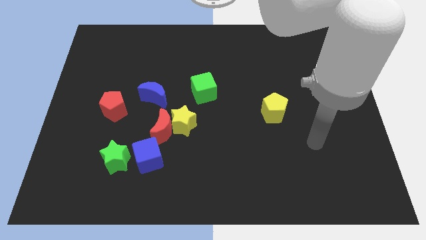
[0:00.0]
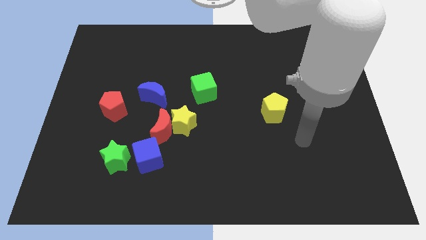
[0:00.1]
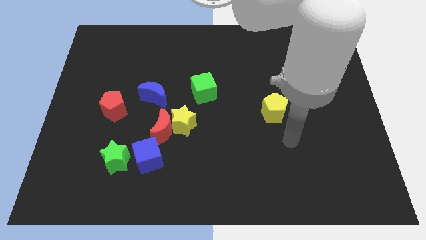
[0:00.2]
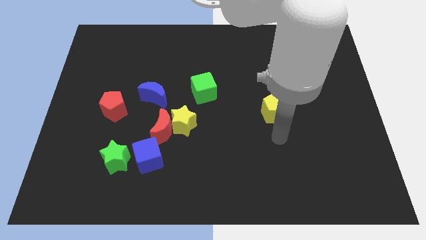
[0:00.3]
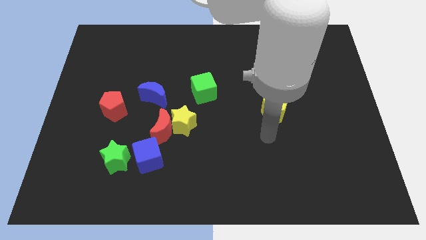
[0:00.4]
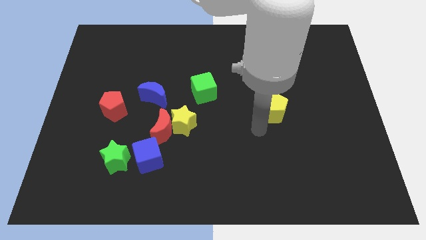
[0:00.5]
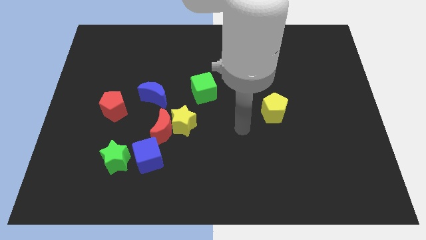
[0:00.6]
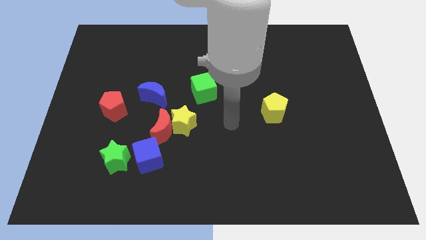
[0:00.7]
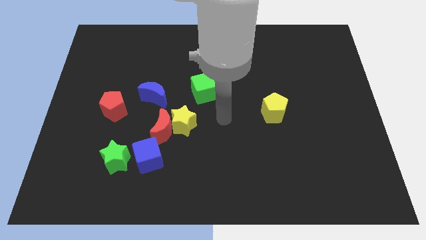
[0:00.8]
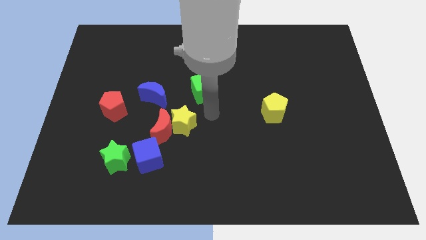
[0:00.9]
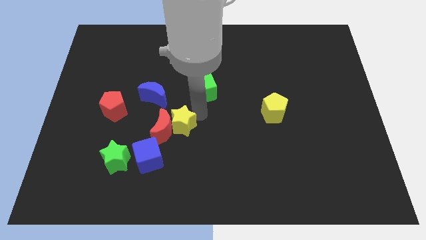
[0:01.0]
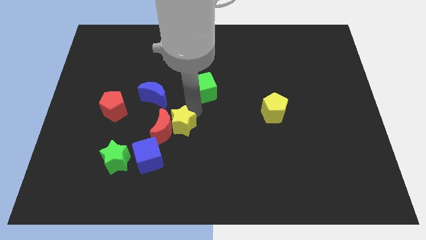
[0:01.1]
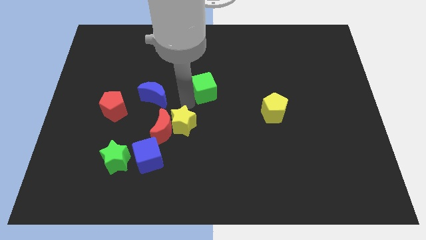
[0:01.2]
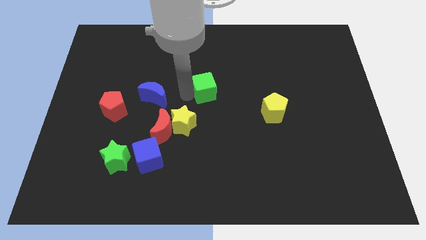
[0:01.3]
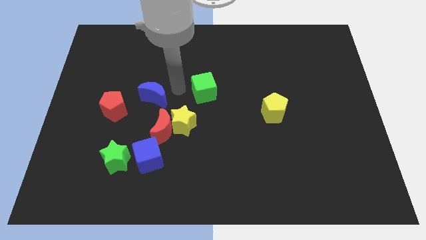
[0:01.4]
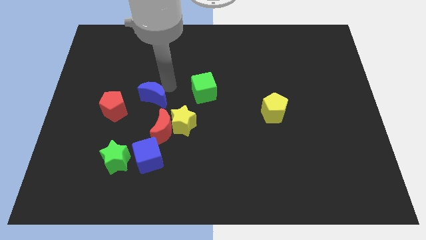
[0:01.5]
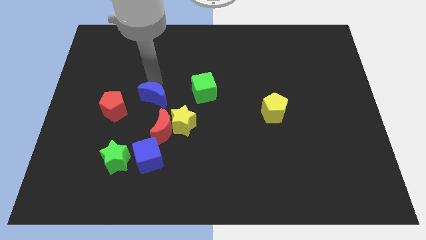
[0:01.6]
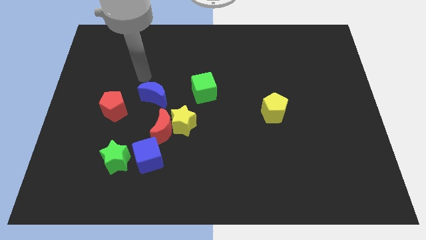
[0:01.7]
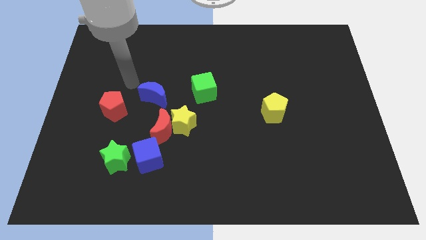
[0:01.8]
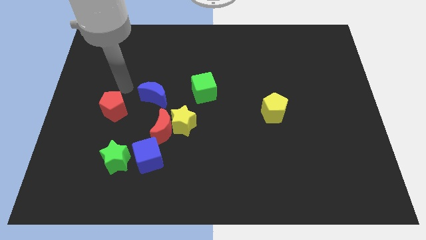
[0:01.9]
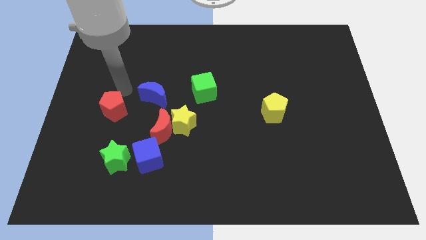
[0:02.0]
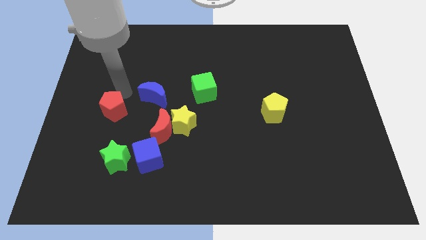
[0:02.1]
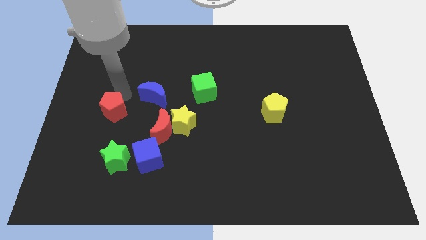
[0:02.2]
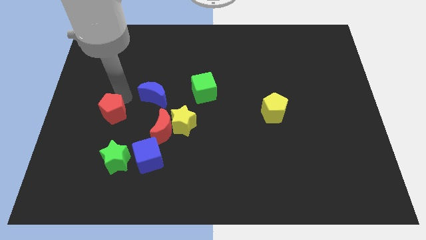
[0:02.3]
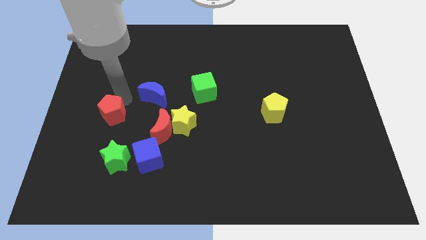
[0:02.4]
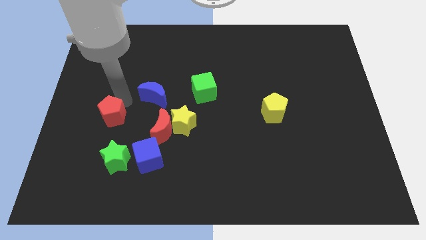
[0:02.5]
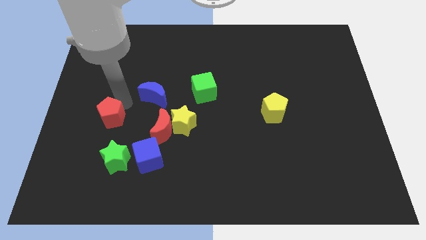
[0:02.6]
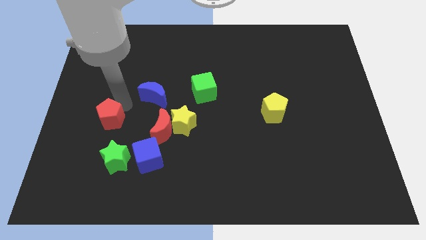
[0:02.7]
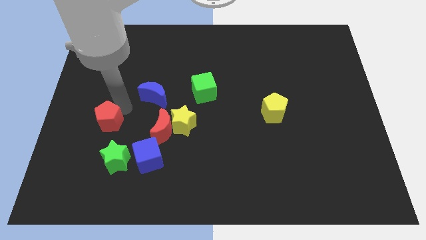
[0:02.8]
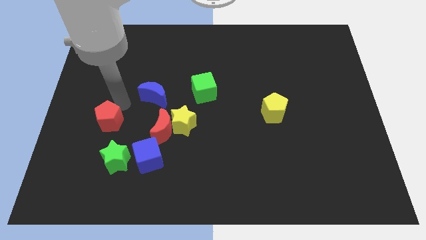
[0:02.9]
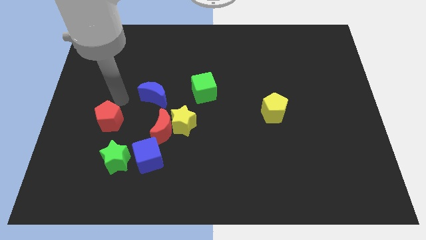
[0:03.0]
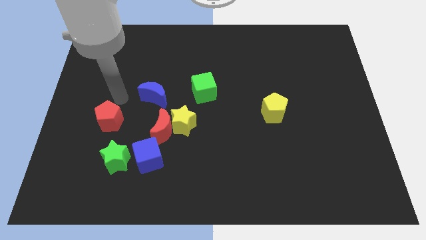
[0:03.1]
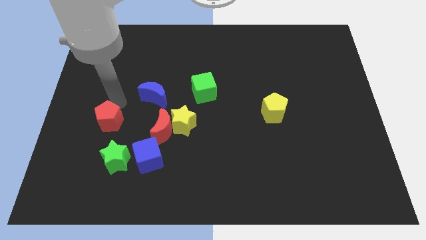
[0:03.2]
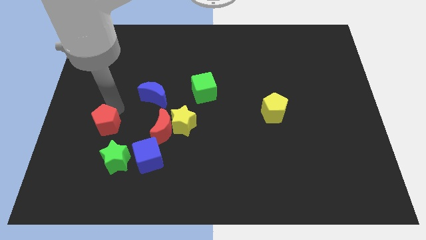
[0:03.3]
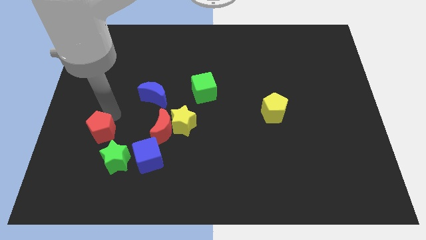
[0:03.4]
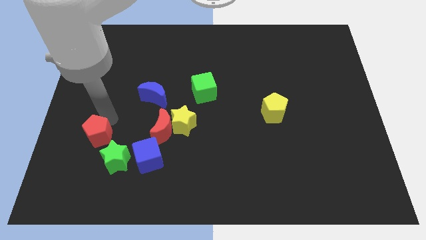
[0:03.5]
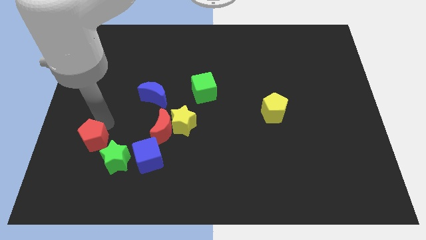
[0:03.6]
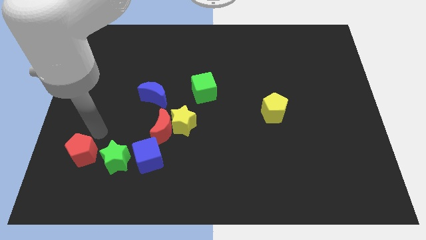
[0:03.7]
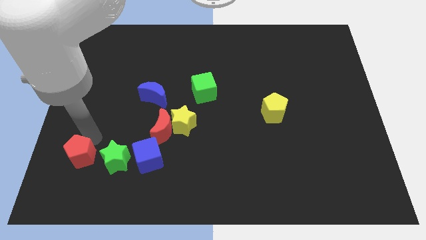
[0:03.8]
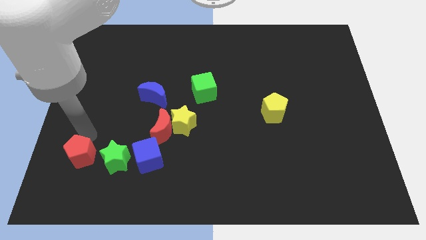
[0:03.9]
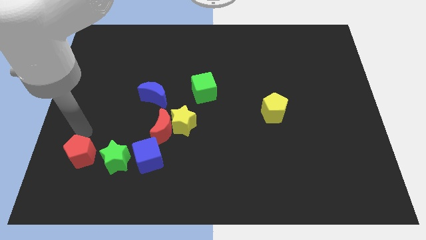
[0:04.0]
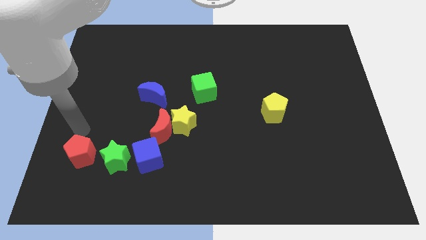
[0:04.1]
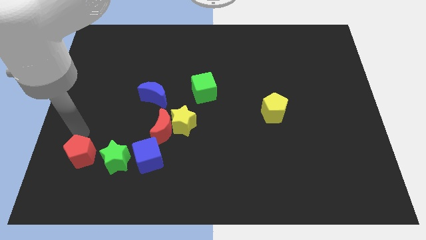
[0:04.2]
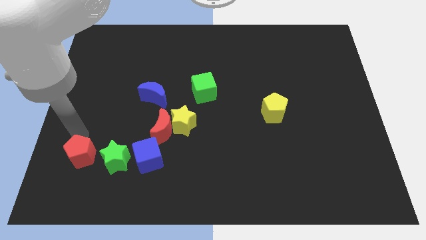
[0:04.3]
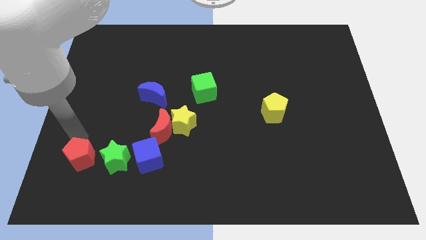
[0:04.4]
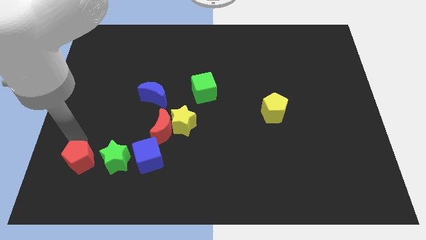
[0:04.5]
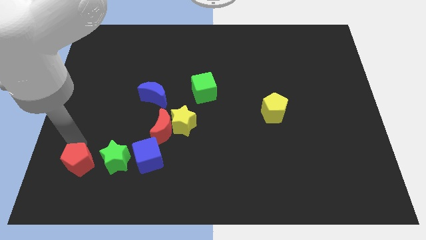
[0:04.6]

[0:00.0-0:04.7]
slide the red pentagon to the bottom left of the green star

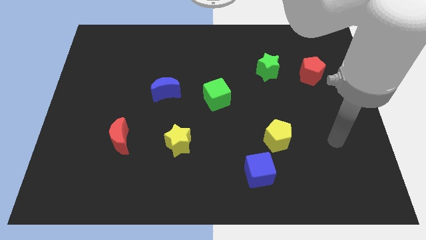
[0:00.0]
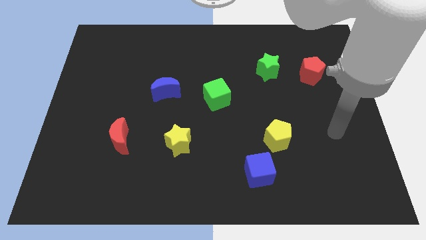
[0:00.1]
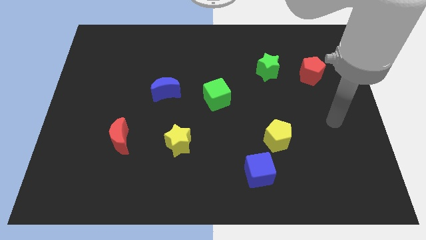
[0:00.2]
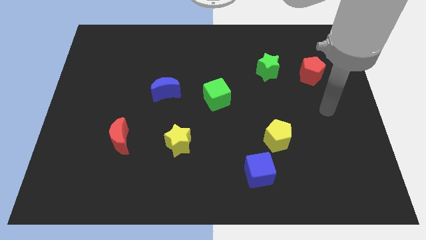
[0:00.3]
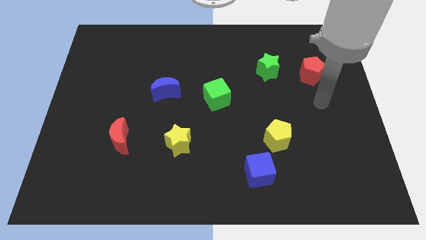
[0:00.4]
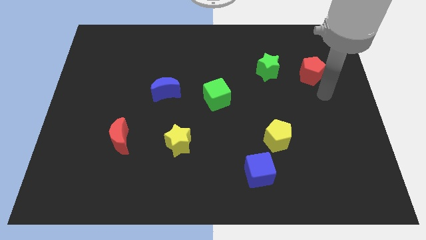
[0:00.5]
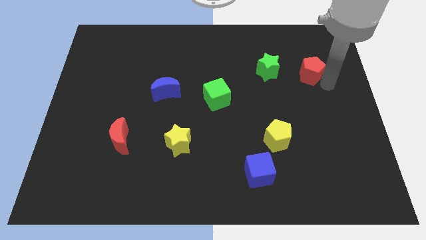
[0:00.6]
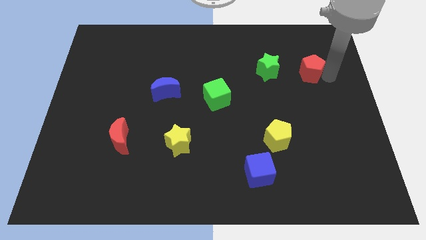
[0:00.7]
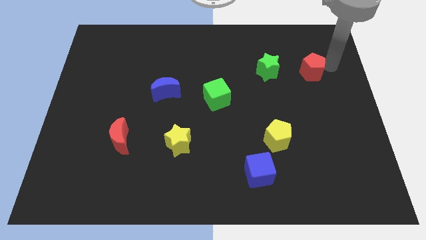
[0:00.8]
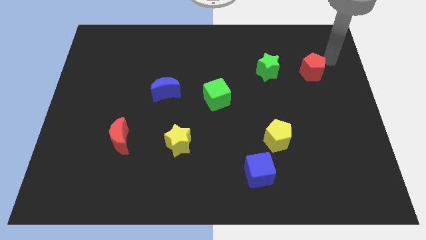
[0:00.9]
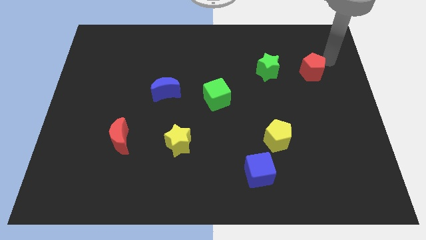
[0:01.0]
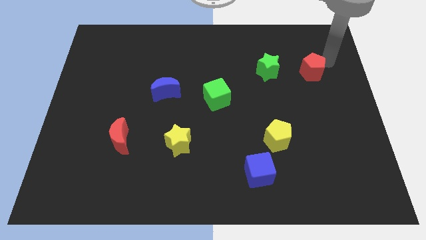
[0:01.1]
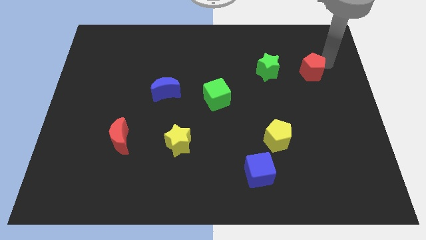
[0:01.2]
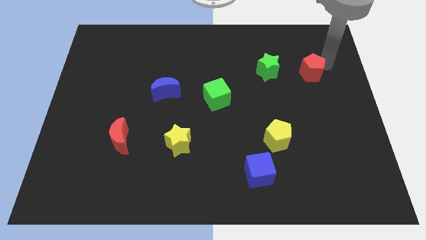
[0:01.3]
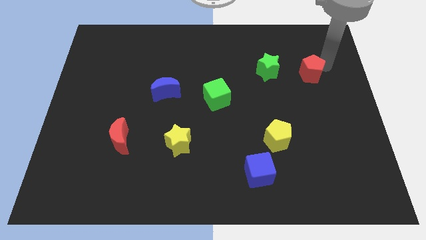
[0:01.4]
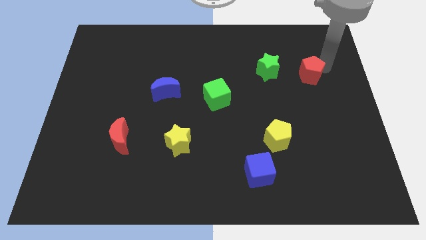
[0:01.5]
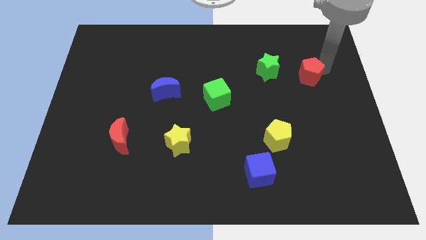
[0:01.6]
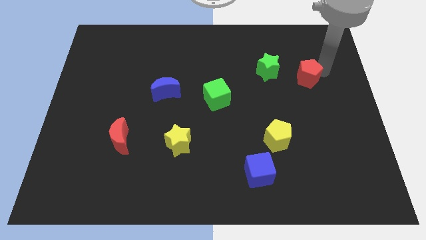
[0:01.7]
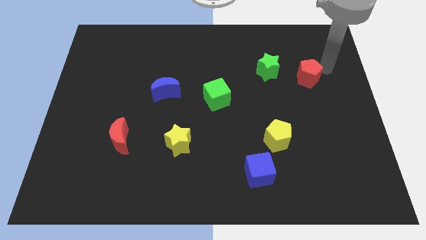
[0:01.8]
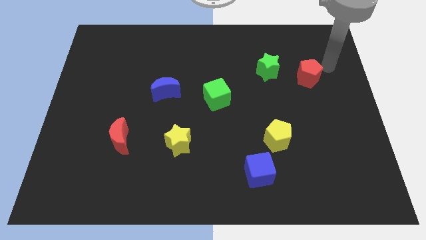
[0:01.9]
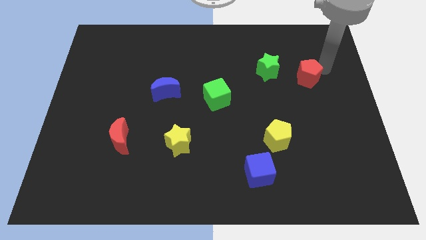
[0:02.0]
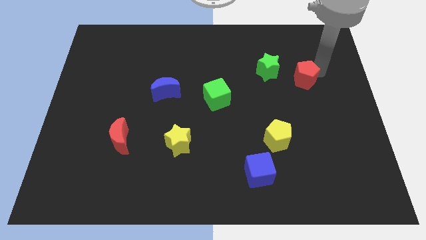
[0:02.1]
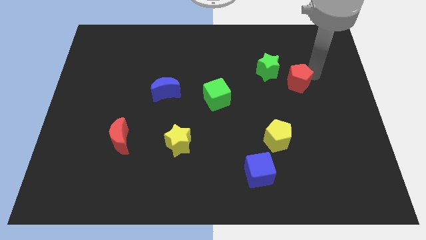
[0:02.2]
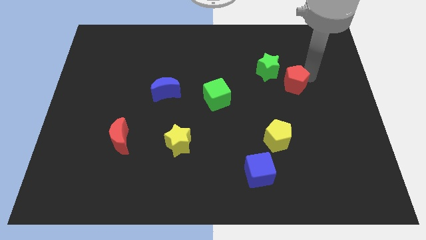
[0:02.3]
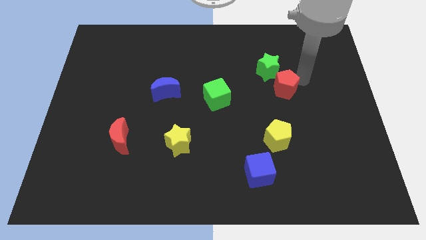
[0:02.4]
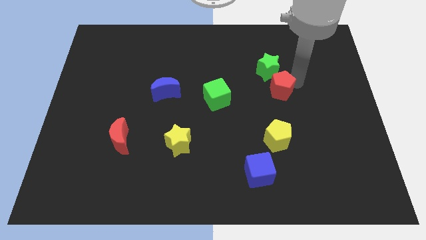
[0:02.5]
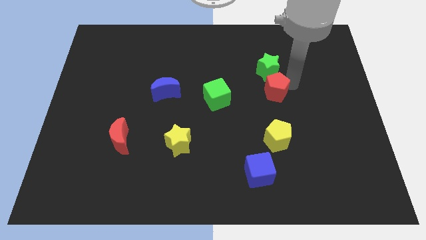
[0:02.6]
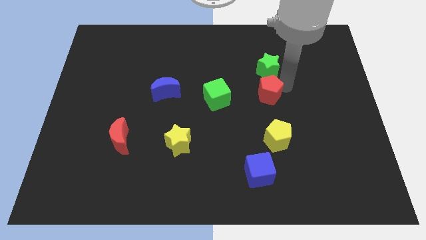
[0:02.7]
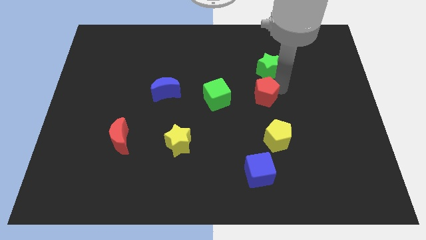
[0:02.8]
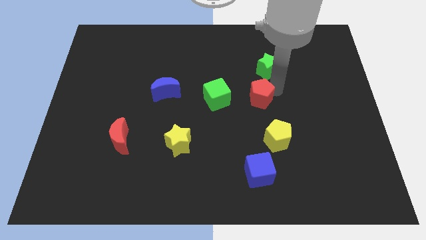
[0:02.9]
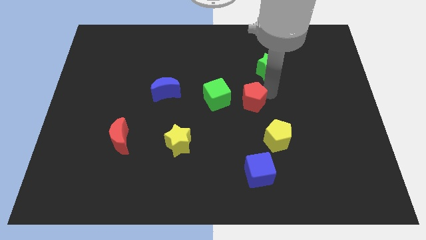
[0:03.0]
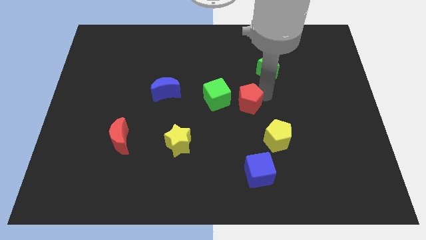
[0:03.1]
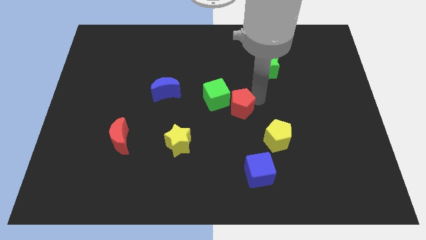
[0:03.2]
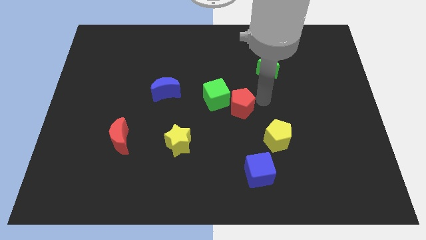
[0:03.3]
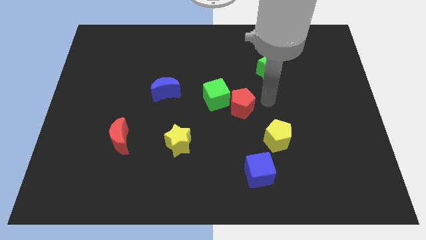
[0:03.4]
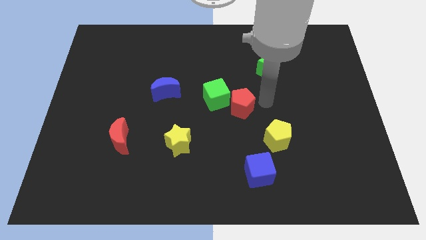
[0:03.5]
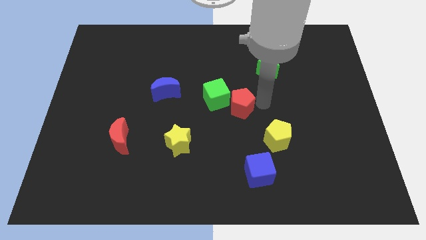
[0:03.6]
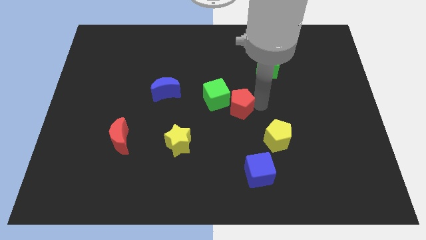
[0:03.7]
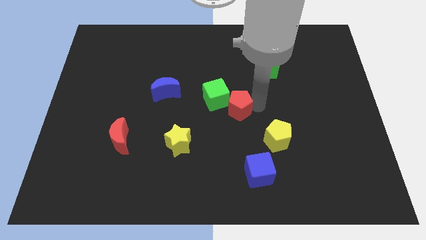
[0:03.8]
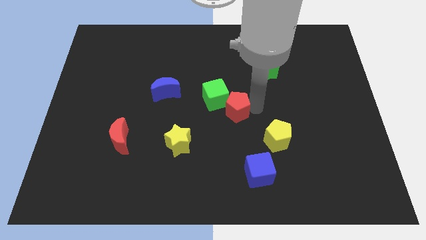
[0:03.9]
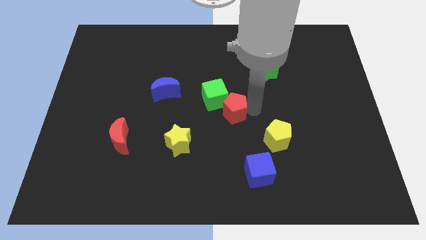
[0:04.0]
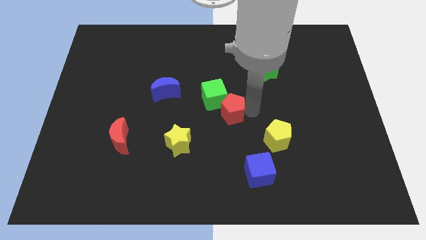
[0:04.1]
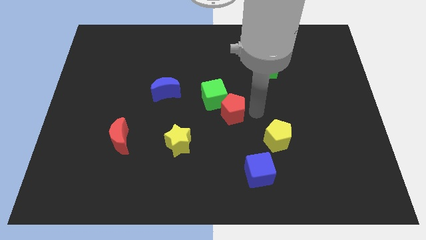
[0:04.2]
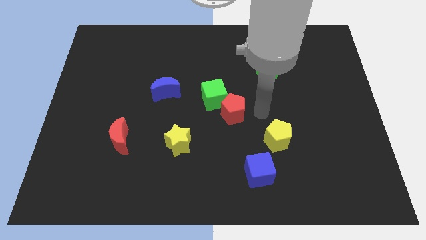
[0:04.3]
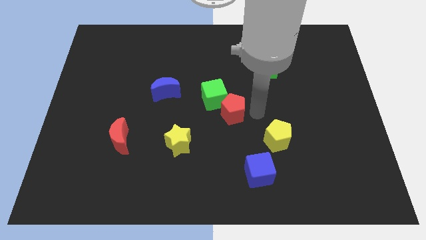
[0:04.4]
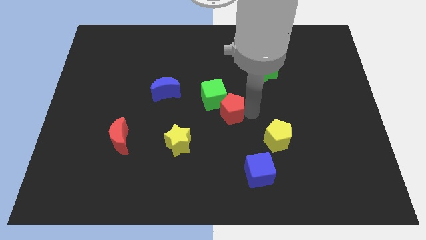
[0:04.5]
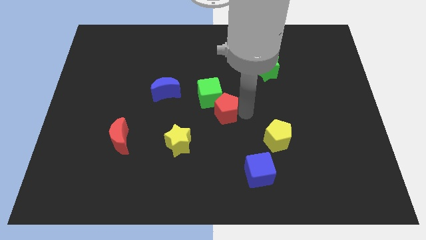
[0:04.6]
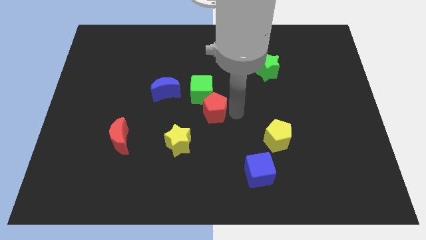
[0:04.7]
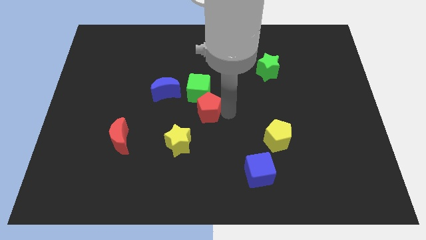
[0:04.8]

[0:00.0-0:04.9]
slide the red pentagon diagonally down and to the right of the blue moon
